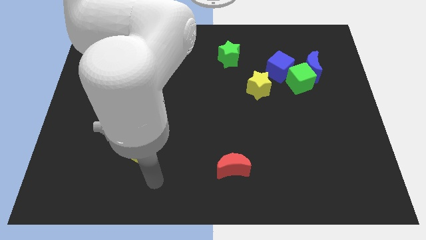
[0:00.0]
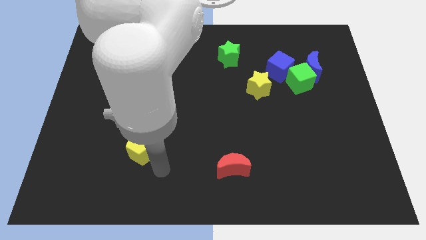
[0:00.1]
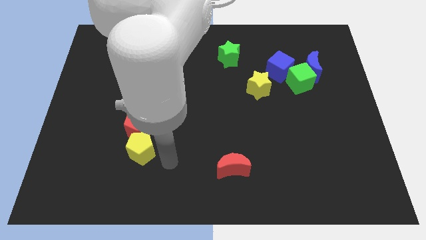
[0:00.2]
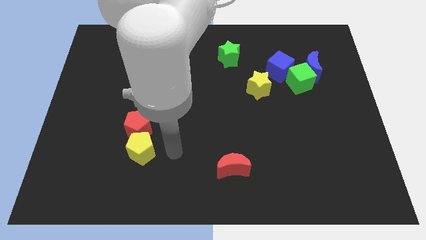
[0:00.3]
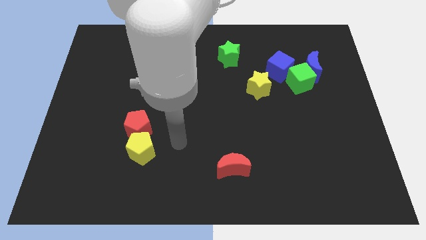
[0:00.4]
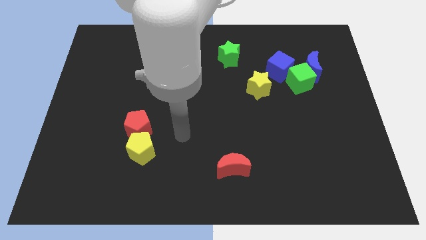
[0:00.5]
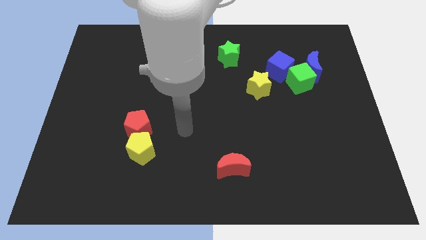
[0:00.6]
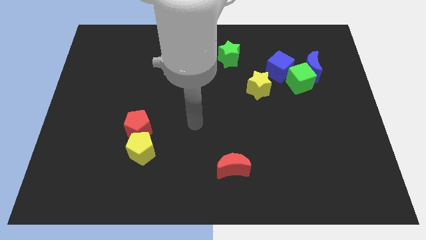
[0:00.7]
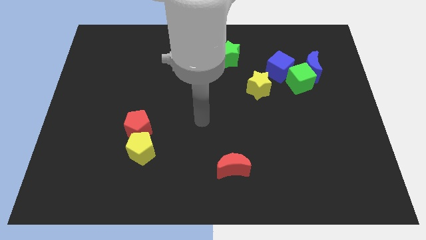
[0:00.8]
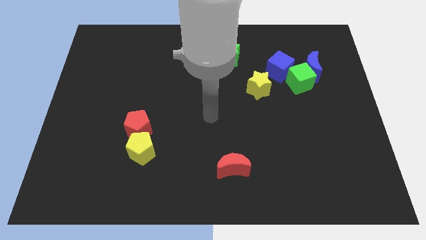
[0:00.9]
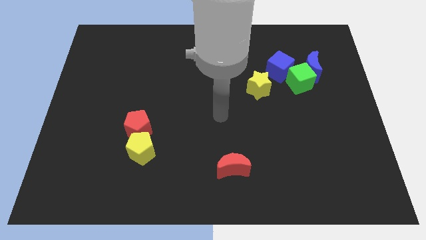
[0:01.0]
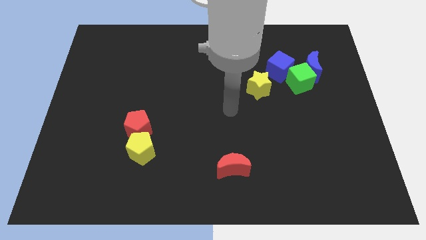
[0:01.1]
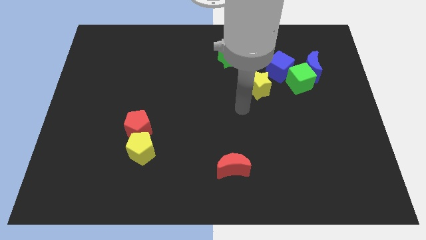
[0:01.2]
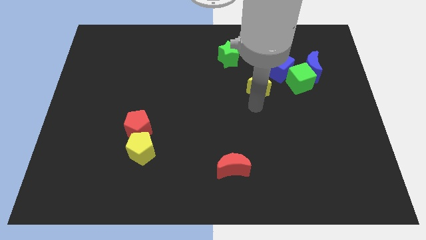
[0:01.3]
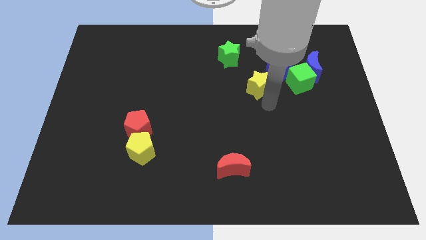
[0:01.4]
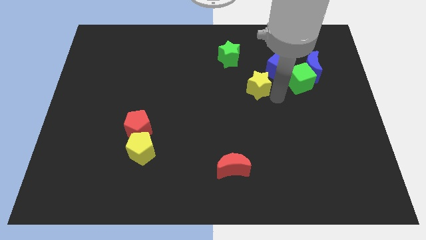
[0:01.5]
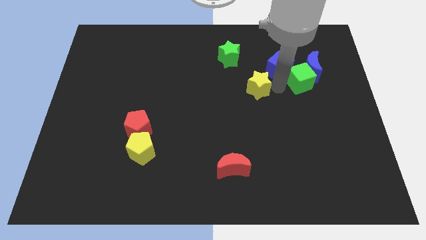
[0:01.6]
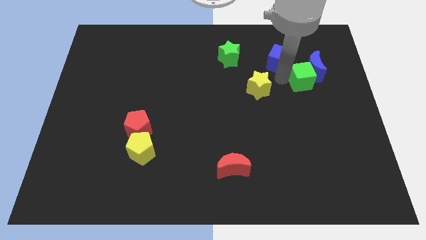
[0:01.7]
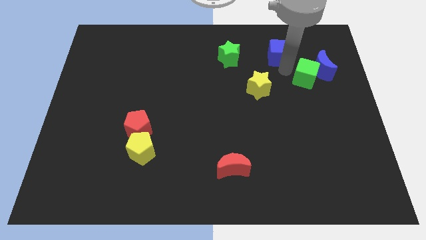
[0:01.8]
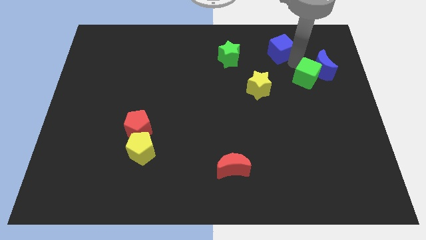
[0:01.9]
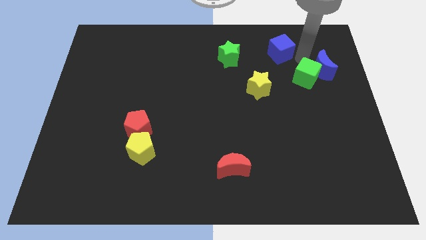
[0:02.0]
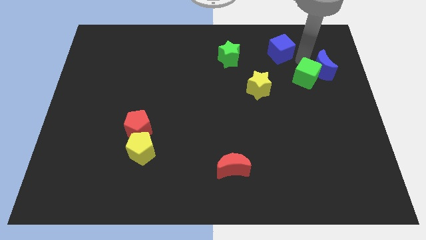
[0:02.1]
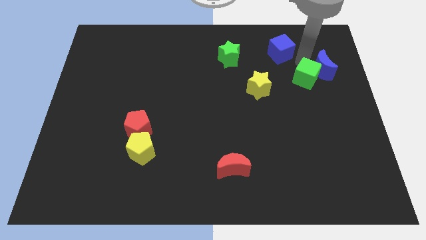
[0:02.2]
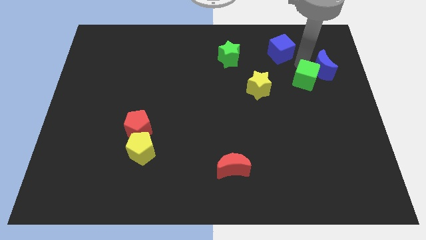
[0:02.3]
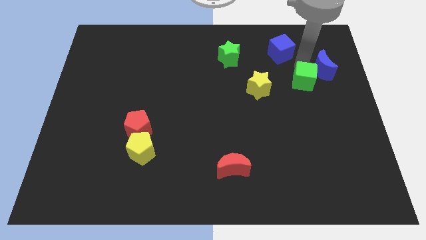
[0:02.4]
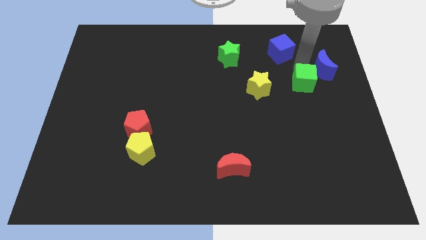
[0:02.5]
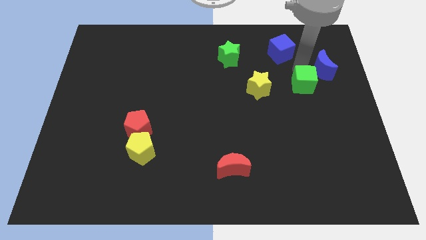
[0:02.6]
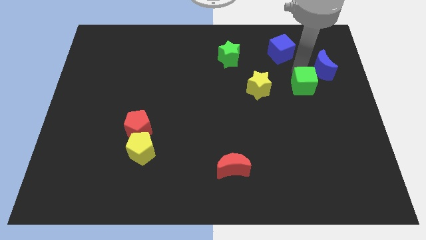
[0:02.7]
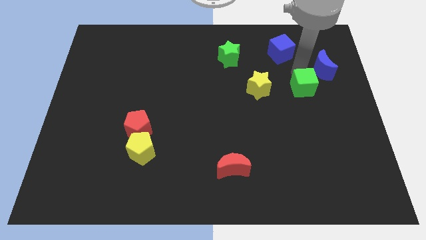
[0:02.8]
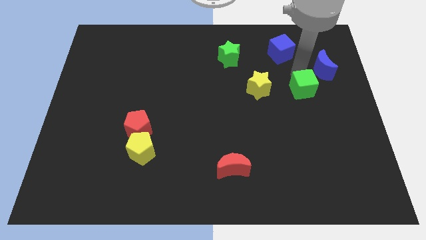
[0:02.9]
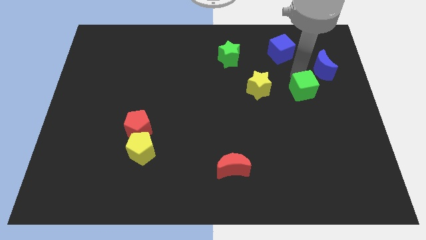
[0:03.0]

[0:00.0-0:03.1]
move the green cube away from the blue moon and blue cube

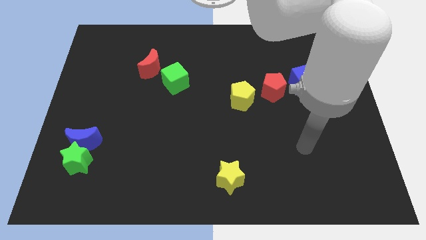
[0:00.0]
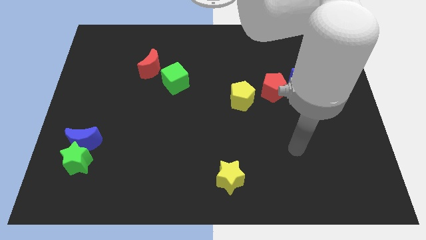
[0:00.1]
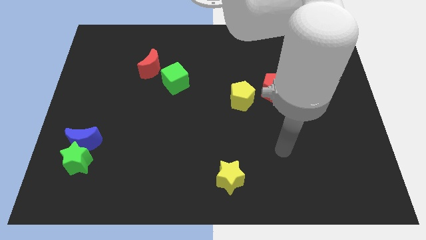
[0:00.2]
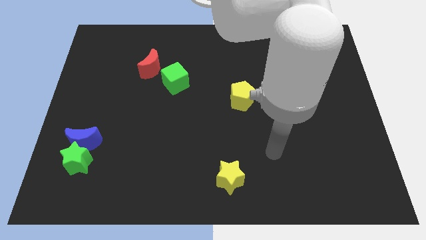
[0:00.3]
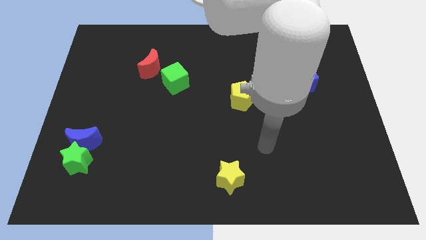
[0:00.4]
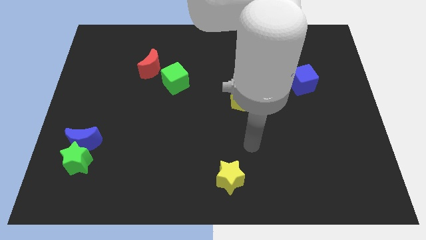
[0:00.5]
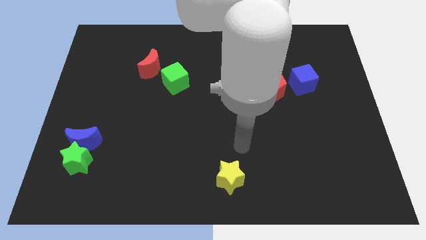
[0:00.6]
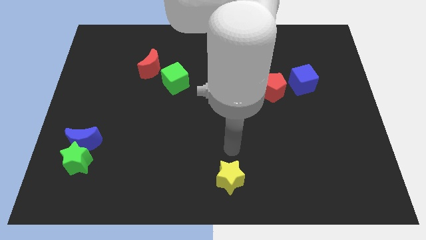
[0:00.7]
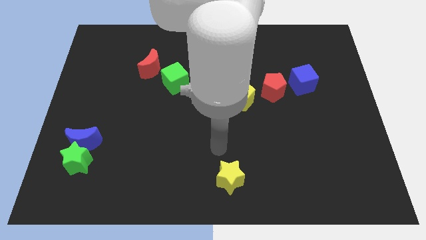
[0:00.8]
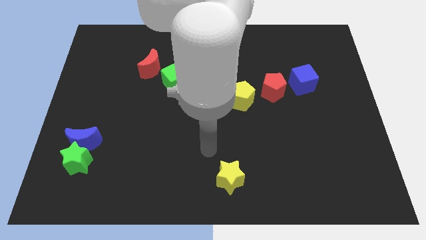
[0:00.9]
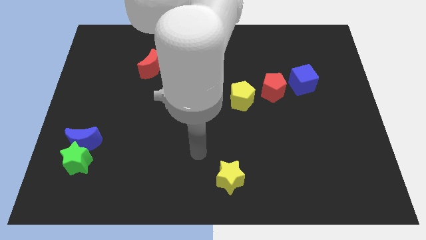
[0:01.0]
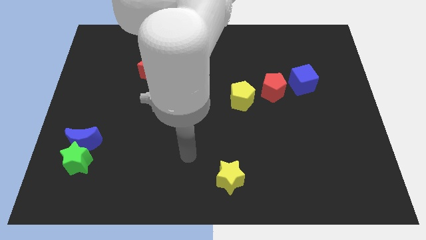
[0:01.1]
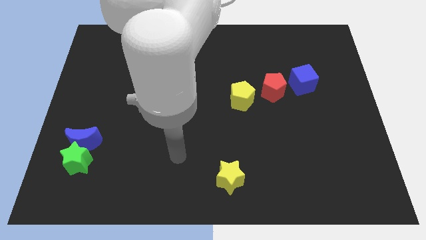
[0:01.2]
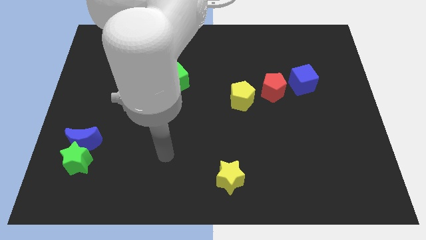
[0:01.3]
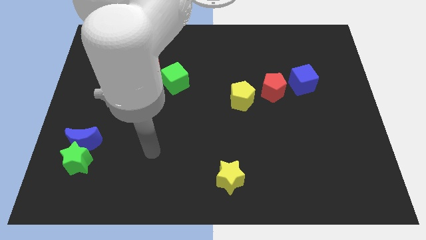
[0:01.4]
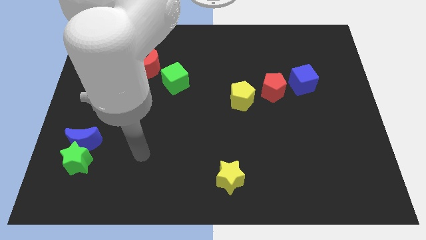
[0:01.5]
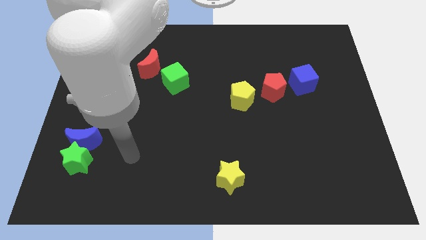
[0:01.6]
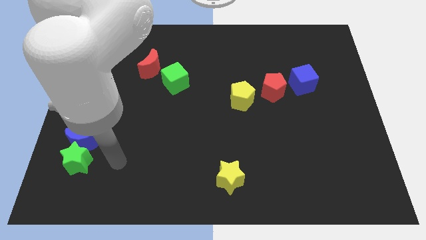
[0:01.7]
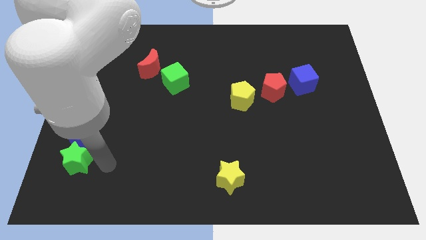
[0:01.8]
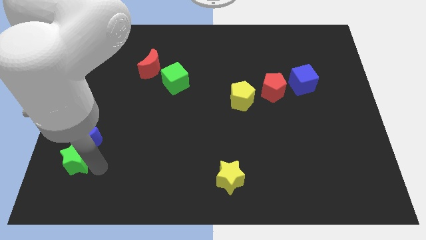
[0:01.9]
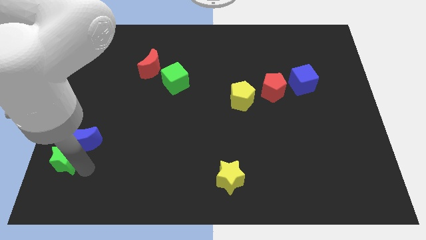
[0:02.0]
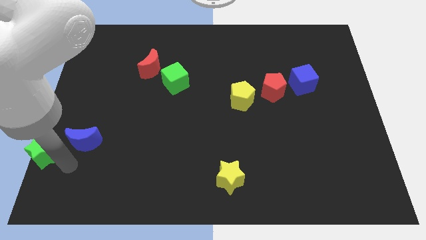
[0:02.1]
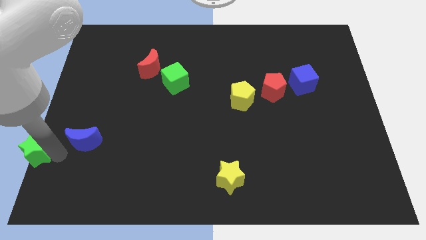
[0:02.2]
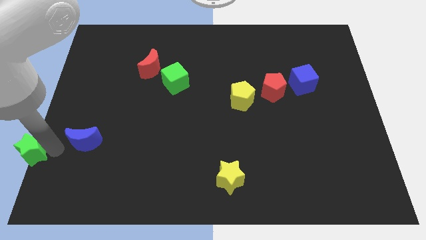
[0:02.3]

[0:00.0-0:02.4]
separate the blue moon from the green star

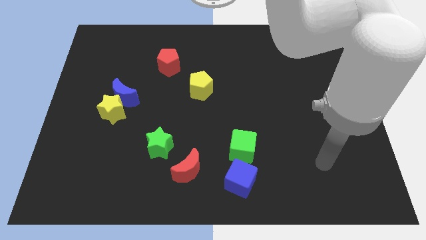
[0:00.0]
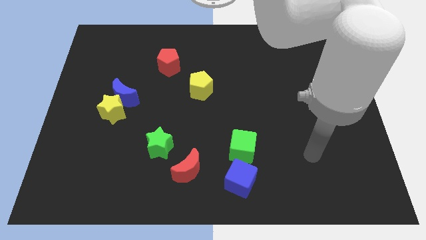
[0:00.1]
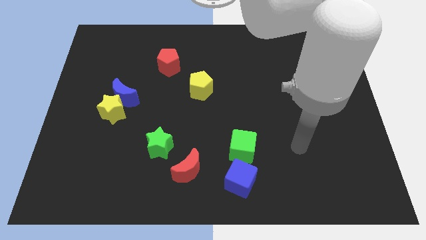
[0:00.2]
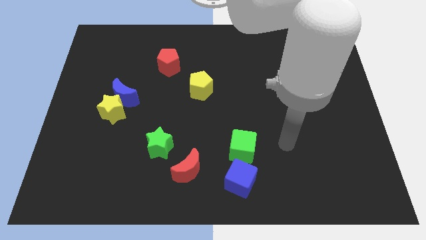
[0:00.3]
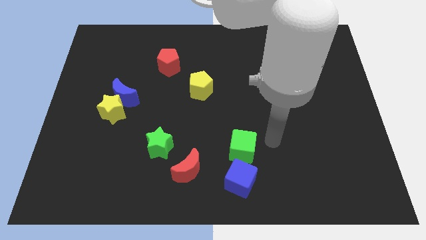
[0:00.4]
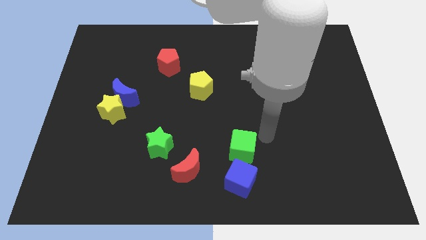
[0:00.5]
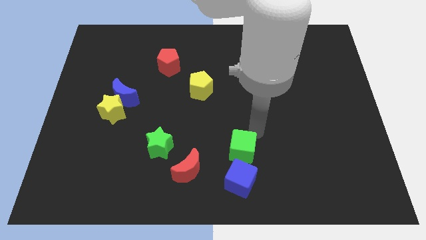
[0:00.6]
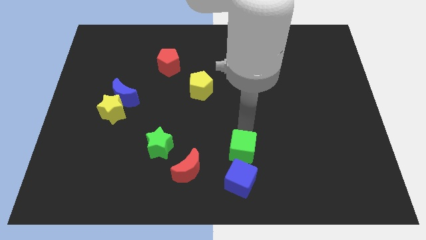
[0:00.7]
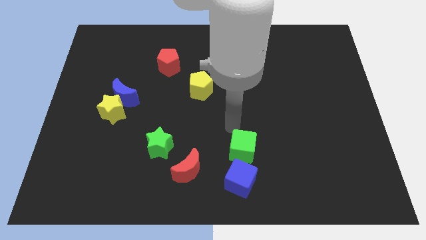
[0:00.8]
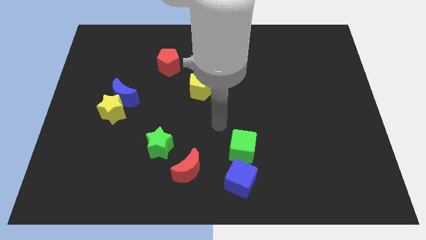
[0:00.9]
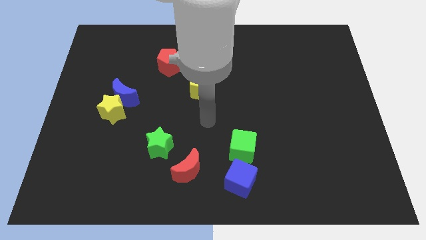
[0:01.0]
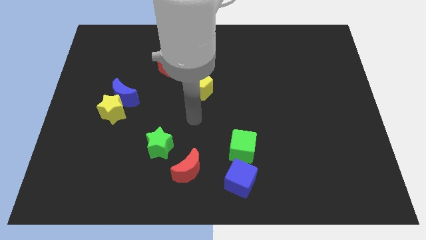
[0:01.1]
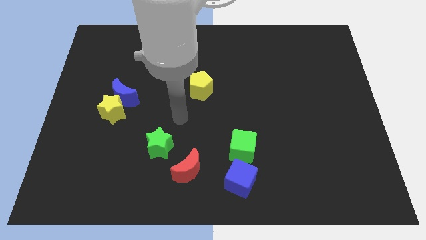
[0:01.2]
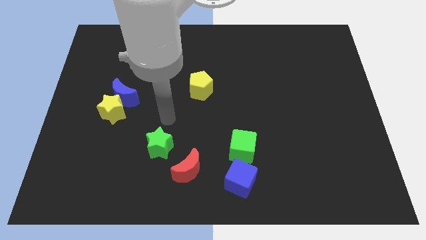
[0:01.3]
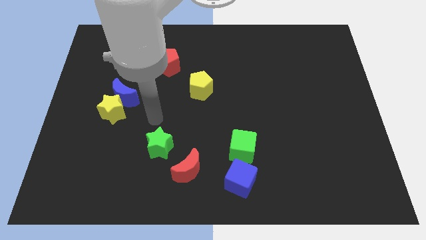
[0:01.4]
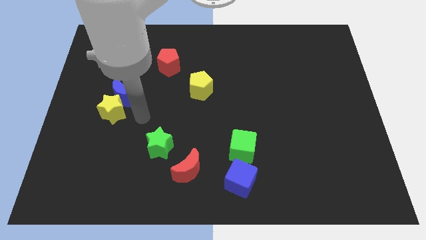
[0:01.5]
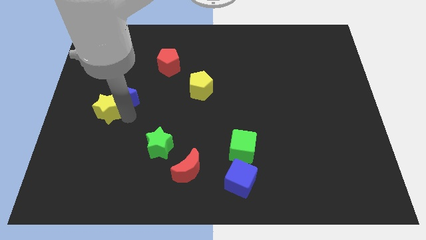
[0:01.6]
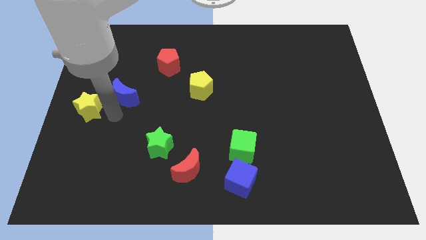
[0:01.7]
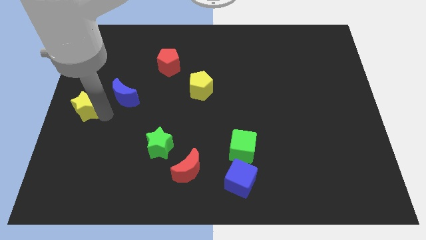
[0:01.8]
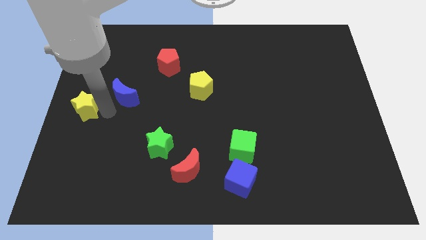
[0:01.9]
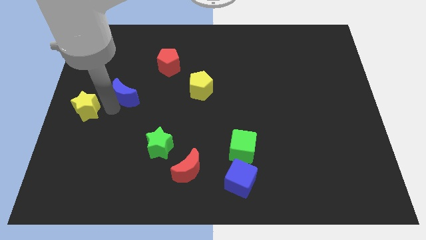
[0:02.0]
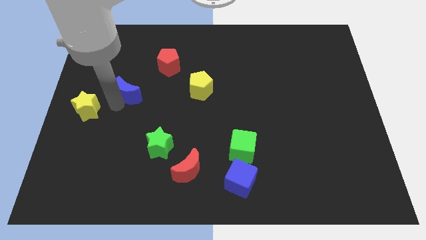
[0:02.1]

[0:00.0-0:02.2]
move the blue moon away from the yellow star

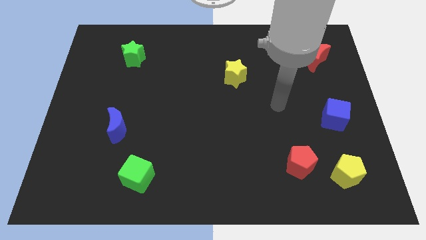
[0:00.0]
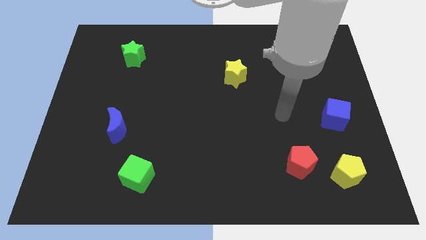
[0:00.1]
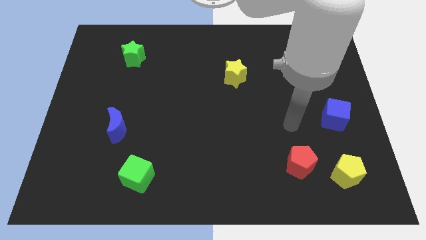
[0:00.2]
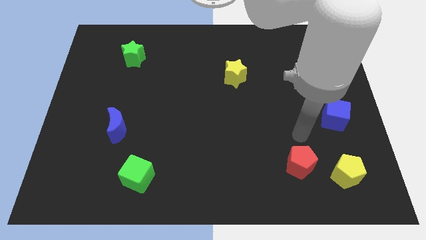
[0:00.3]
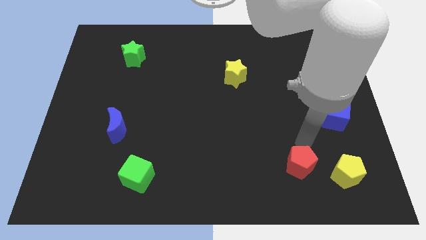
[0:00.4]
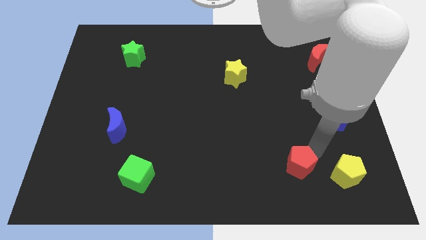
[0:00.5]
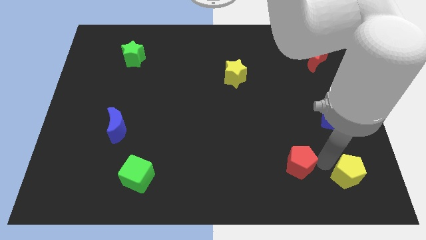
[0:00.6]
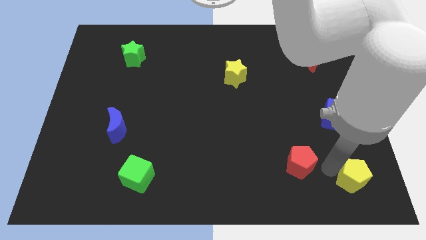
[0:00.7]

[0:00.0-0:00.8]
separate the red pentagon from the yellow pentagon

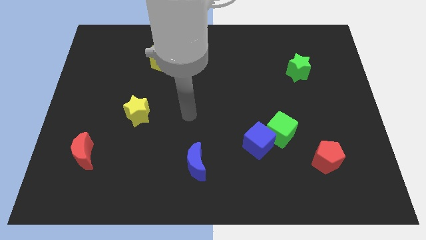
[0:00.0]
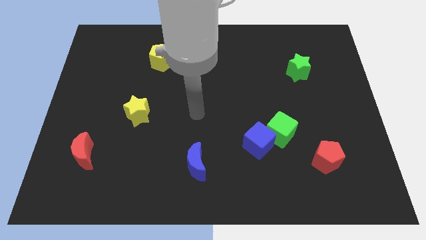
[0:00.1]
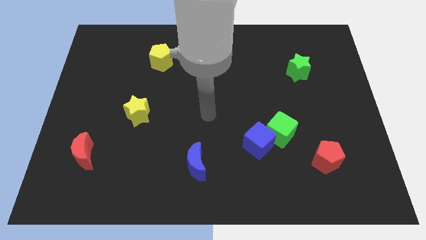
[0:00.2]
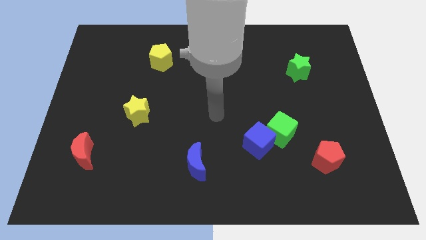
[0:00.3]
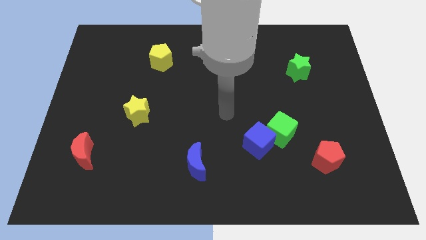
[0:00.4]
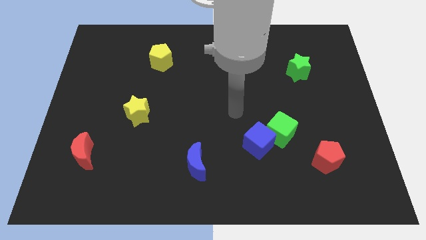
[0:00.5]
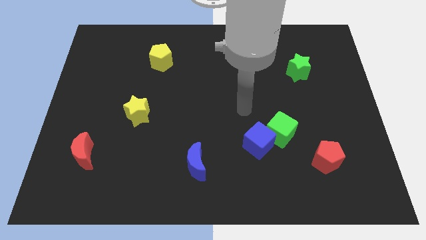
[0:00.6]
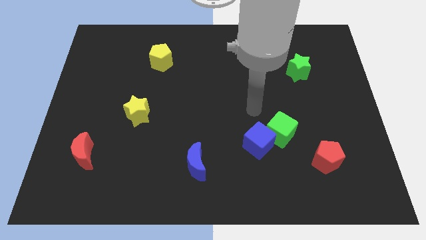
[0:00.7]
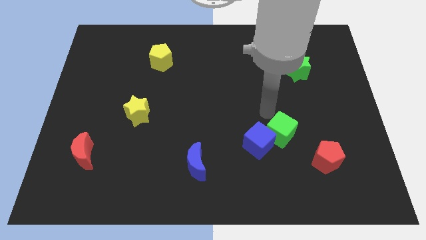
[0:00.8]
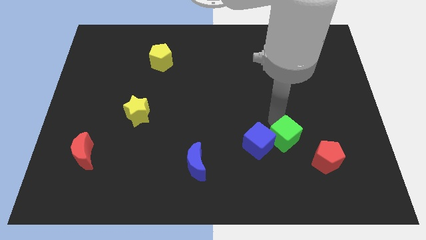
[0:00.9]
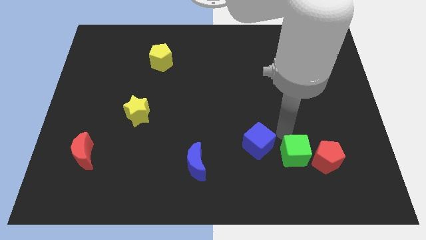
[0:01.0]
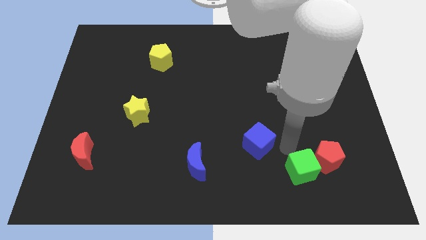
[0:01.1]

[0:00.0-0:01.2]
separate the blue cube from the green cube
